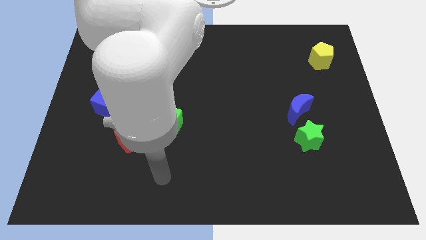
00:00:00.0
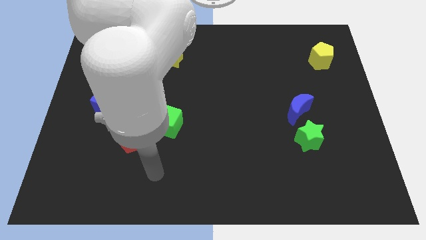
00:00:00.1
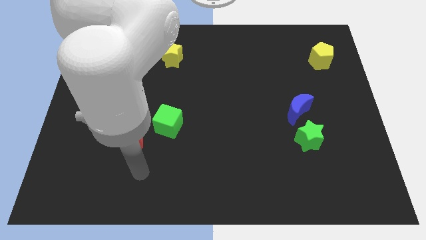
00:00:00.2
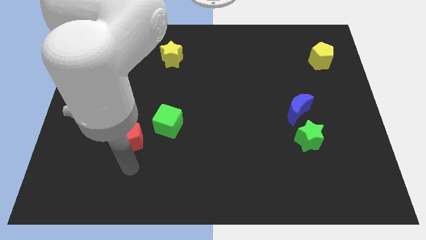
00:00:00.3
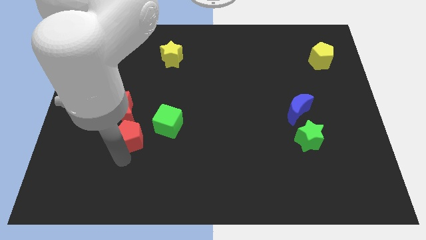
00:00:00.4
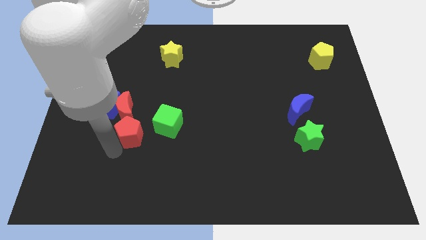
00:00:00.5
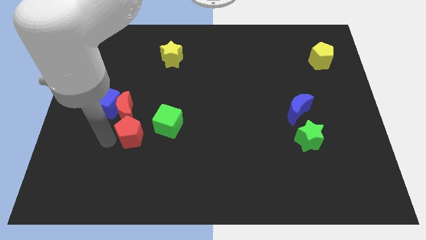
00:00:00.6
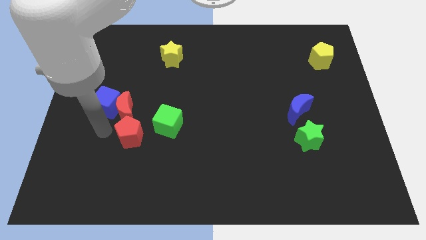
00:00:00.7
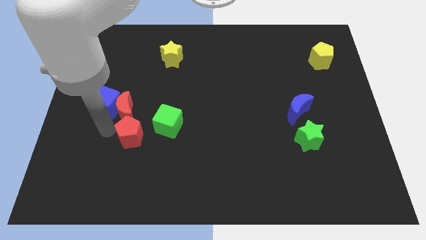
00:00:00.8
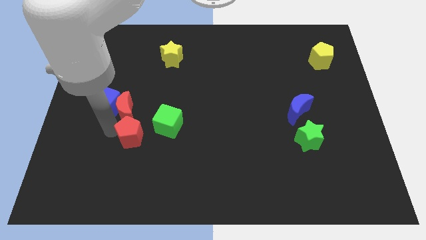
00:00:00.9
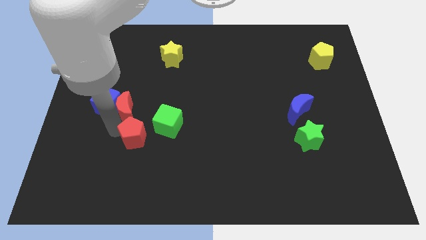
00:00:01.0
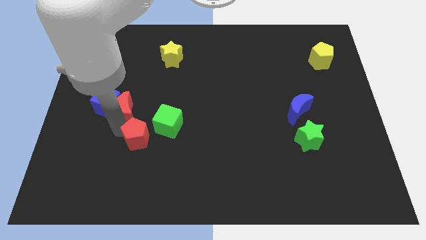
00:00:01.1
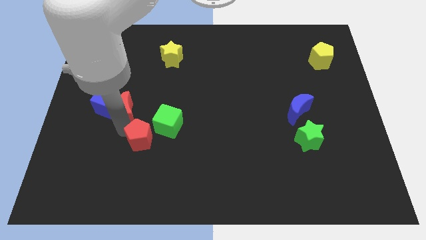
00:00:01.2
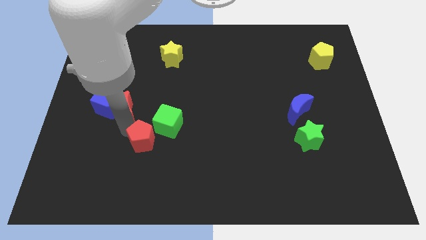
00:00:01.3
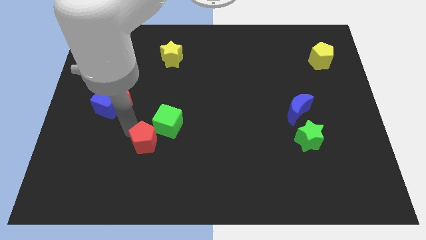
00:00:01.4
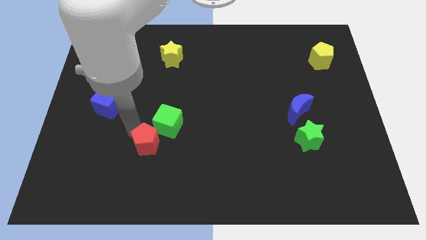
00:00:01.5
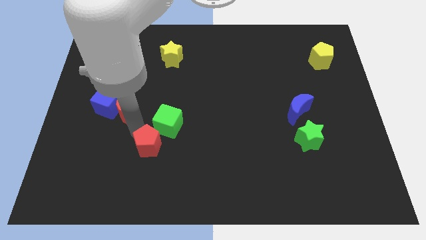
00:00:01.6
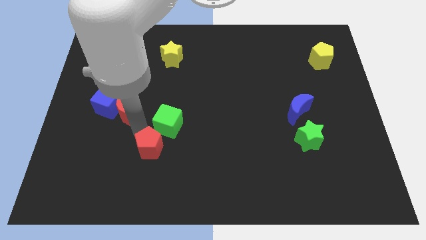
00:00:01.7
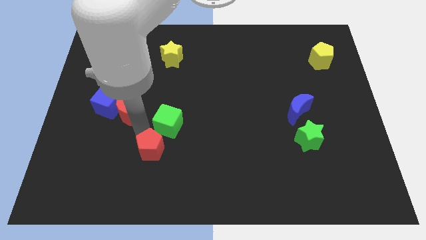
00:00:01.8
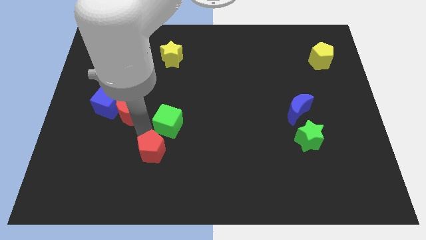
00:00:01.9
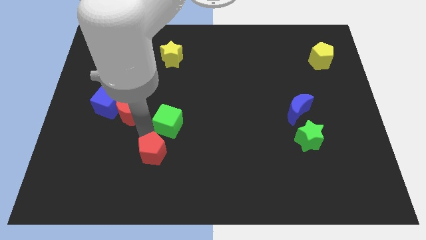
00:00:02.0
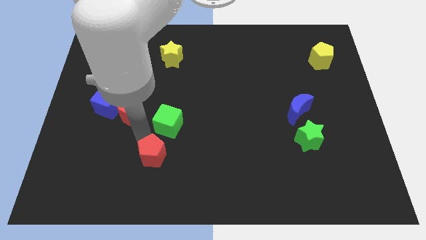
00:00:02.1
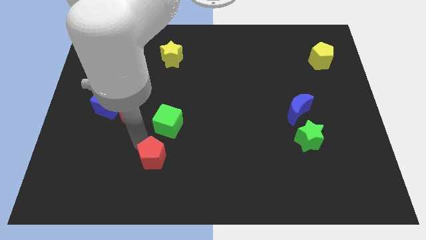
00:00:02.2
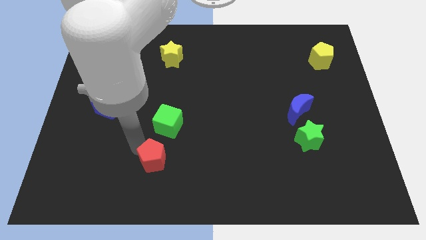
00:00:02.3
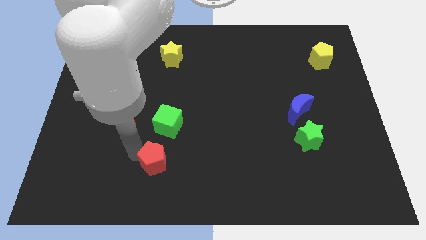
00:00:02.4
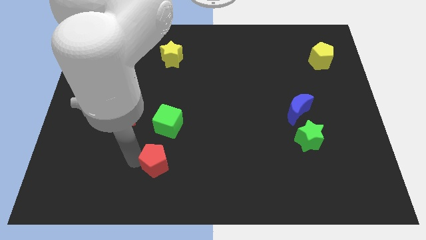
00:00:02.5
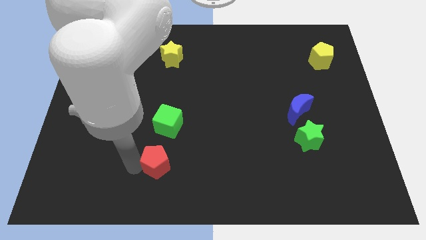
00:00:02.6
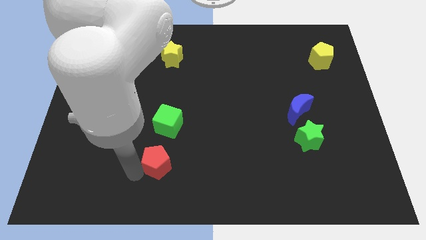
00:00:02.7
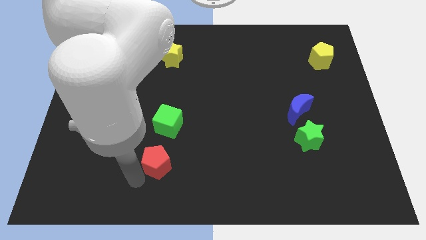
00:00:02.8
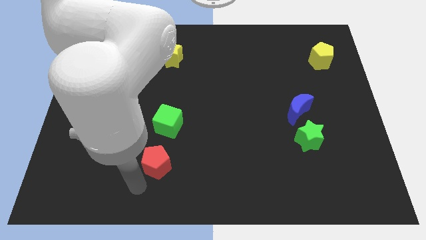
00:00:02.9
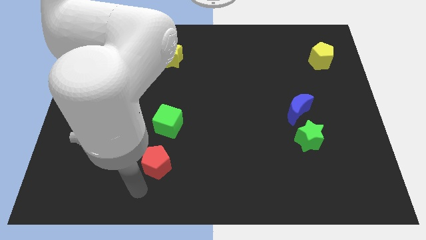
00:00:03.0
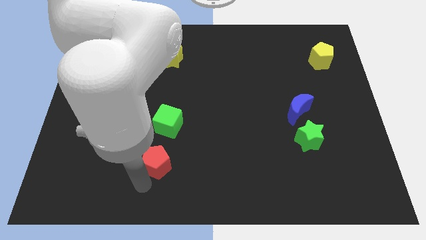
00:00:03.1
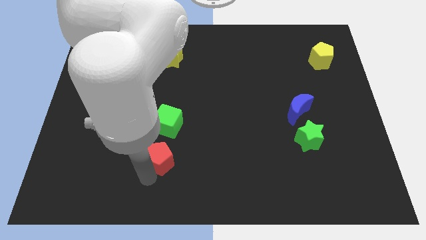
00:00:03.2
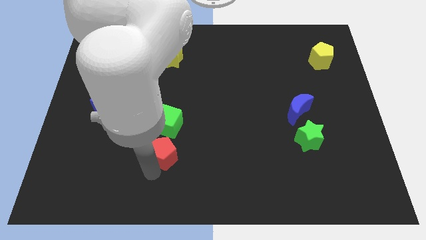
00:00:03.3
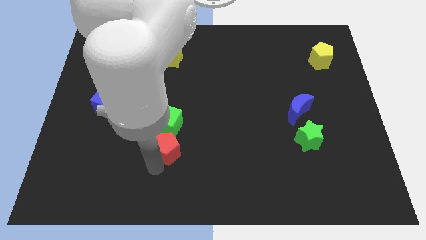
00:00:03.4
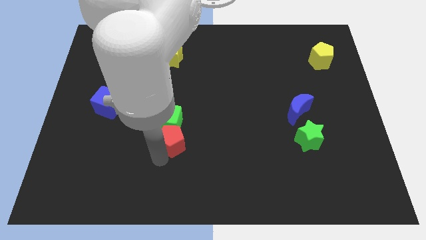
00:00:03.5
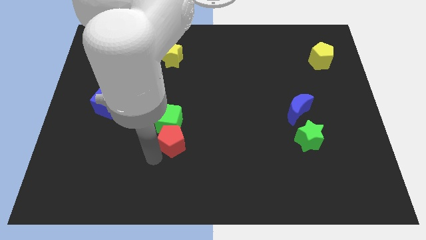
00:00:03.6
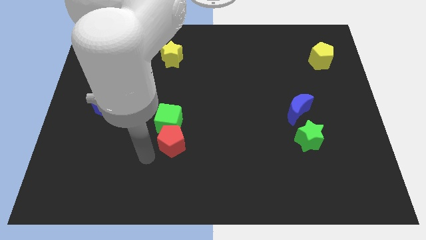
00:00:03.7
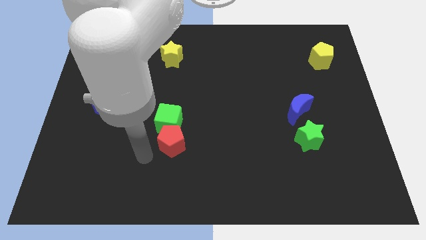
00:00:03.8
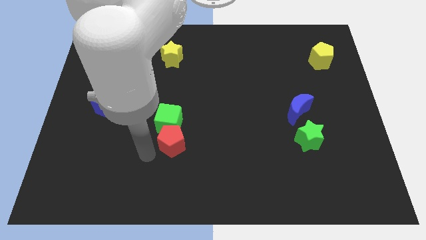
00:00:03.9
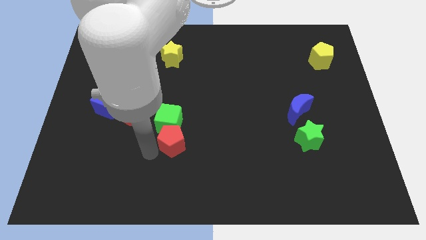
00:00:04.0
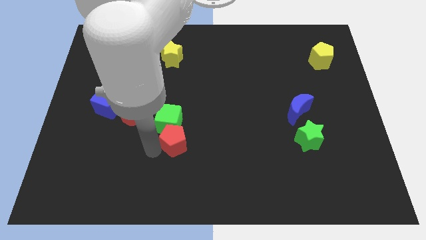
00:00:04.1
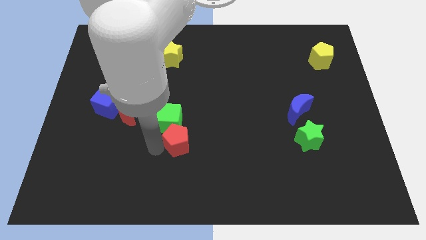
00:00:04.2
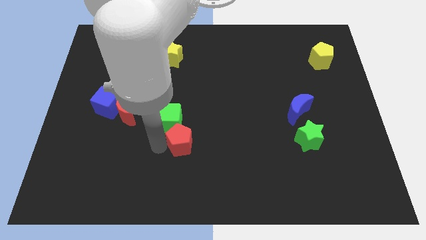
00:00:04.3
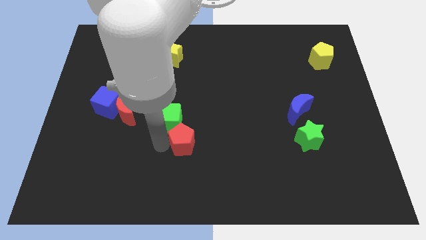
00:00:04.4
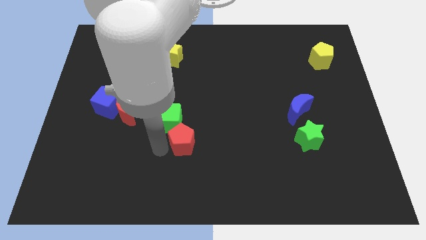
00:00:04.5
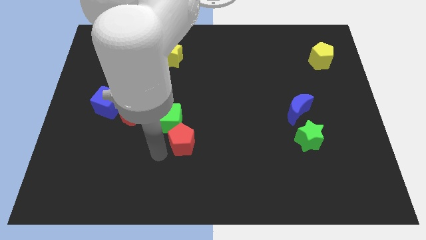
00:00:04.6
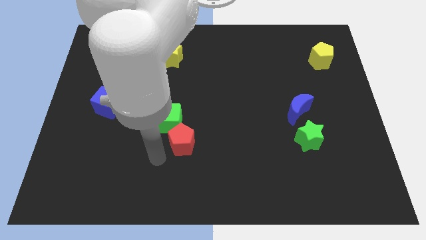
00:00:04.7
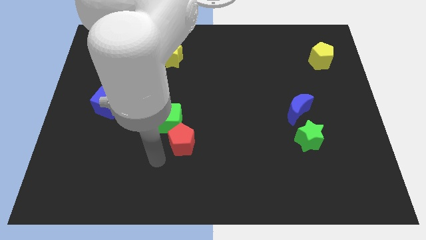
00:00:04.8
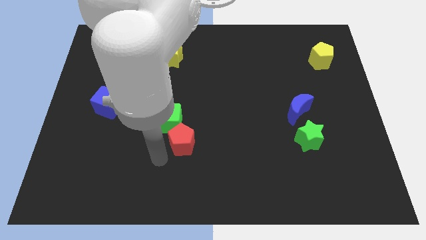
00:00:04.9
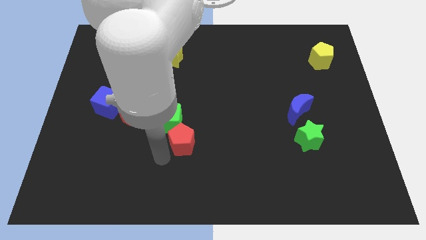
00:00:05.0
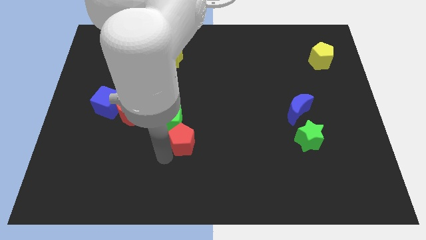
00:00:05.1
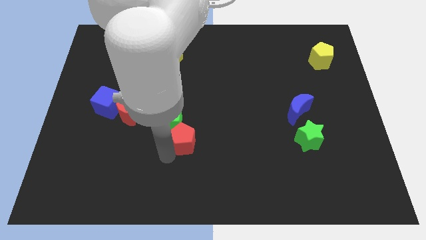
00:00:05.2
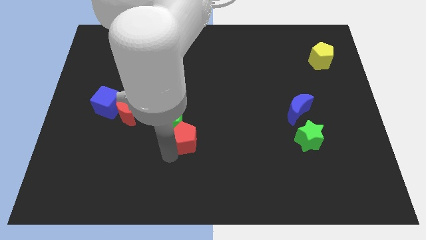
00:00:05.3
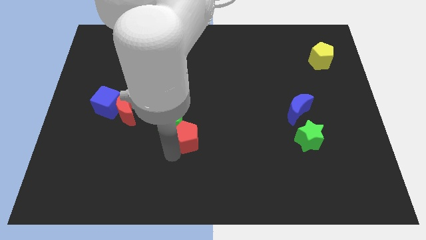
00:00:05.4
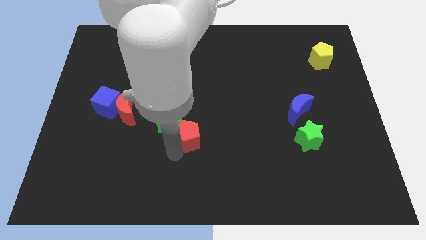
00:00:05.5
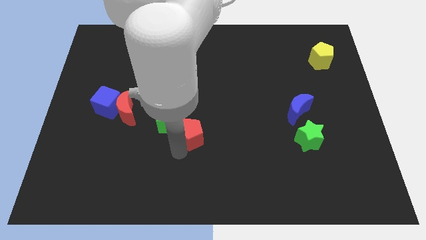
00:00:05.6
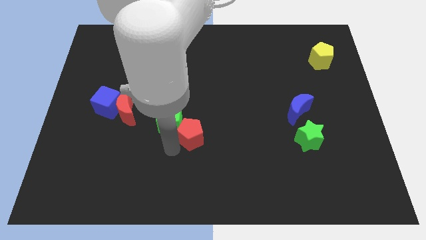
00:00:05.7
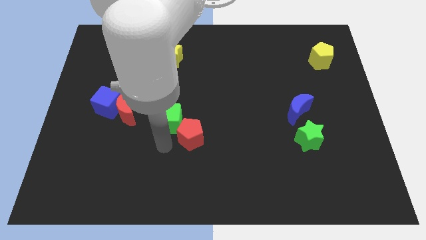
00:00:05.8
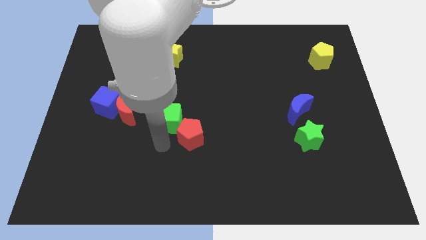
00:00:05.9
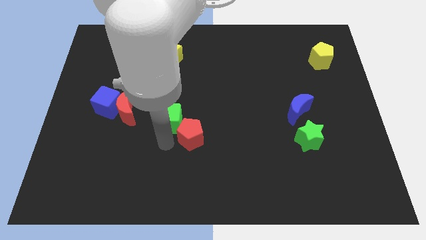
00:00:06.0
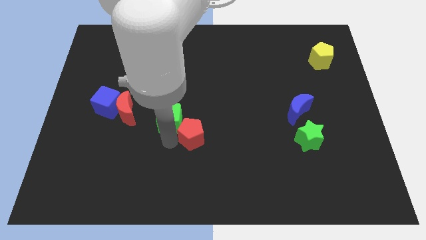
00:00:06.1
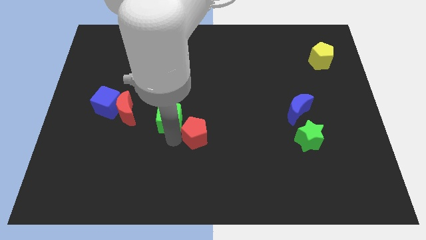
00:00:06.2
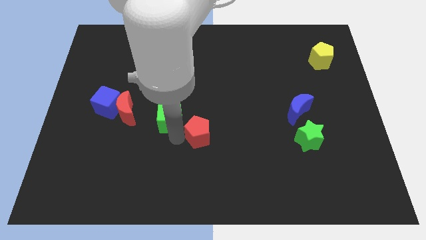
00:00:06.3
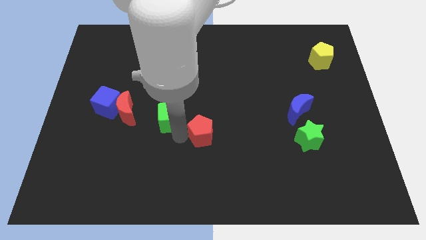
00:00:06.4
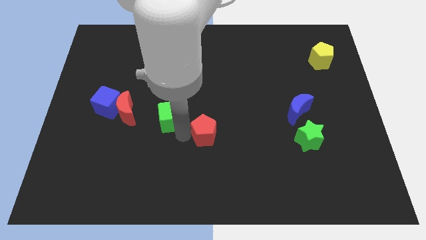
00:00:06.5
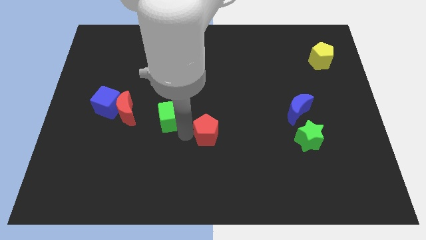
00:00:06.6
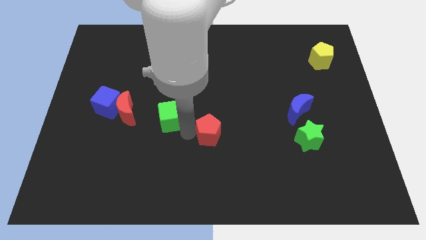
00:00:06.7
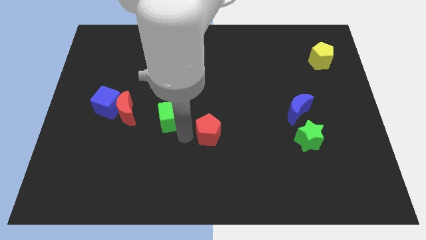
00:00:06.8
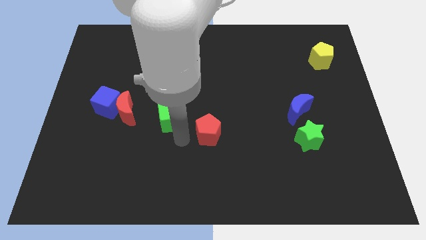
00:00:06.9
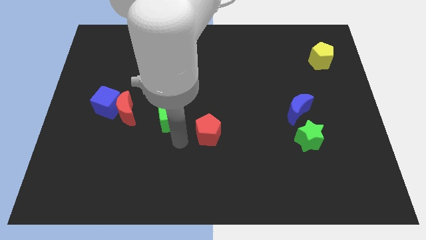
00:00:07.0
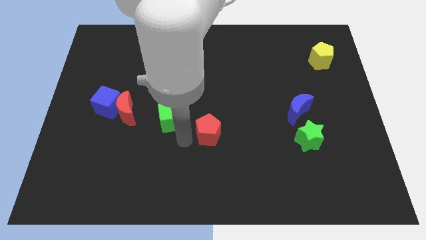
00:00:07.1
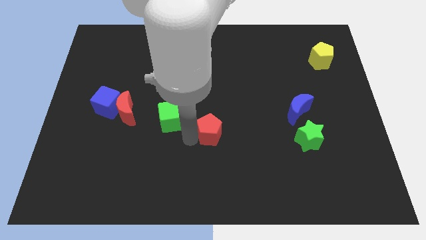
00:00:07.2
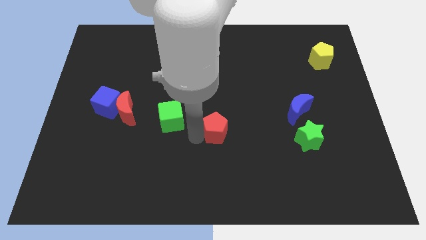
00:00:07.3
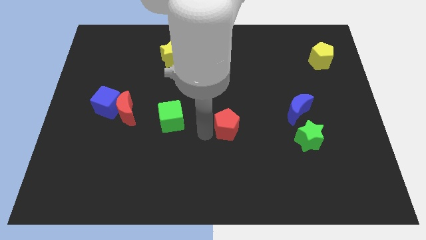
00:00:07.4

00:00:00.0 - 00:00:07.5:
slide the red pentagon to the right

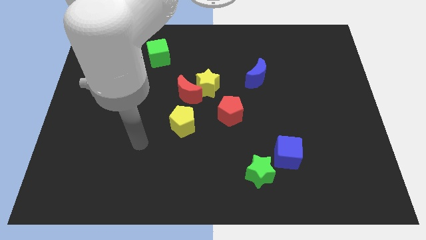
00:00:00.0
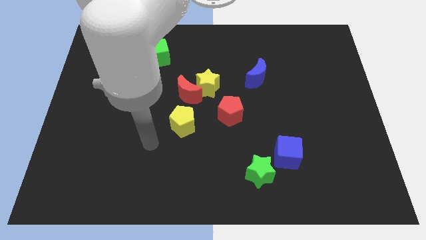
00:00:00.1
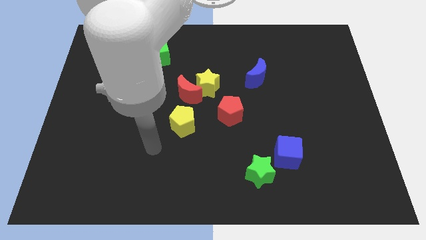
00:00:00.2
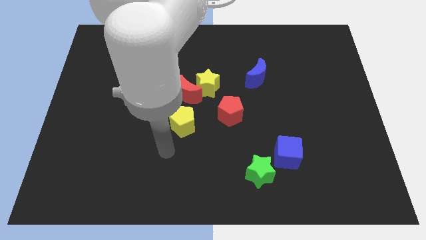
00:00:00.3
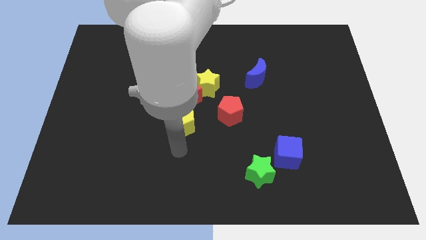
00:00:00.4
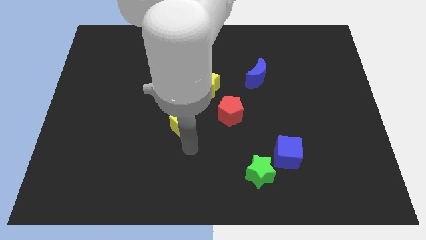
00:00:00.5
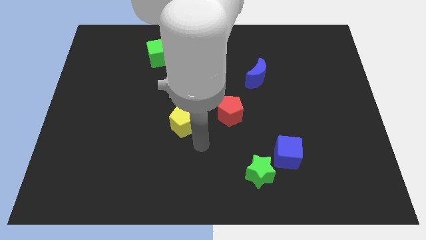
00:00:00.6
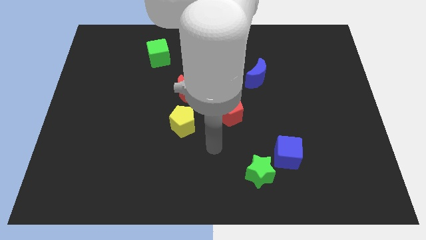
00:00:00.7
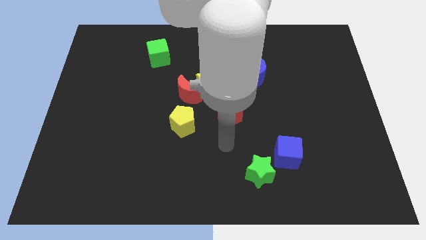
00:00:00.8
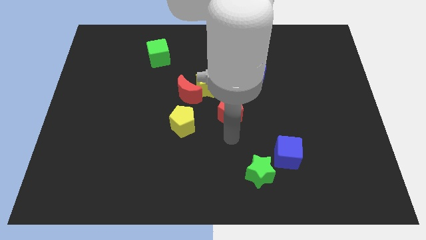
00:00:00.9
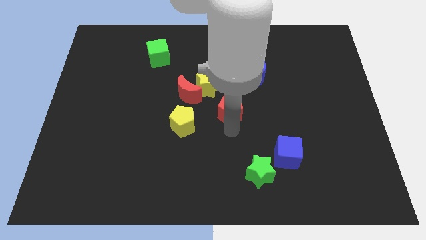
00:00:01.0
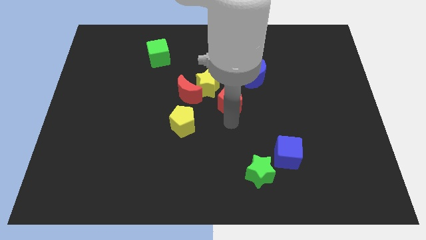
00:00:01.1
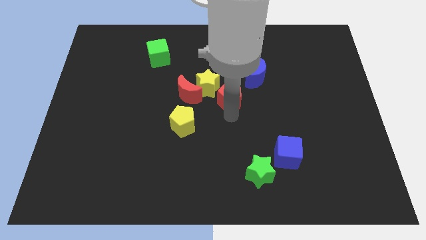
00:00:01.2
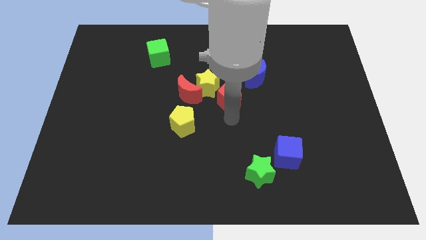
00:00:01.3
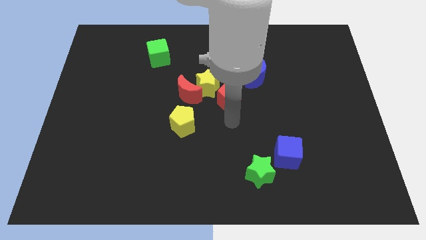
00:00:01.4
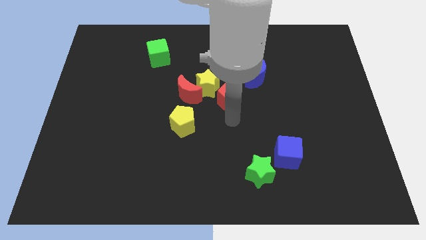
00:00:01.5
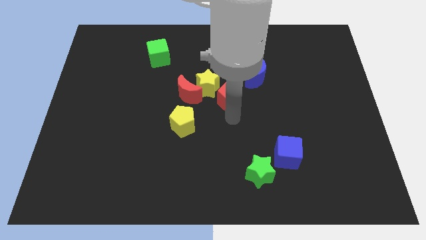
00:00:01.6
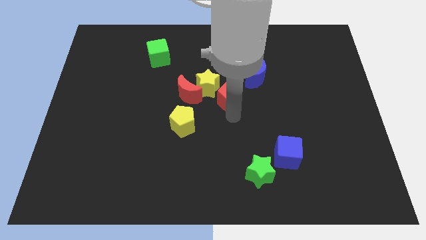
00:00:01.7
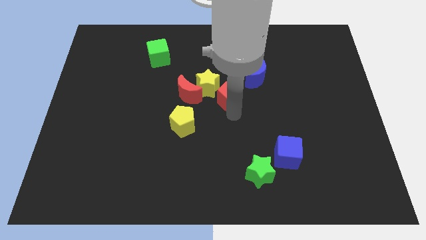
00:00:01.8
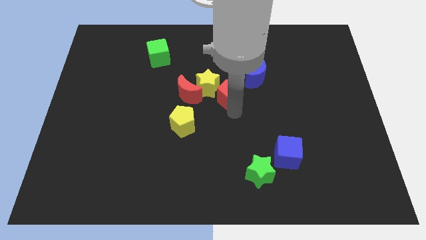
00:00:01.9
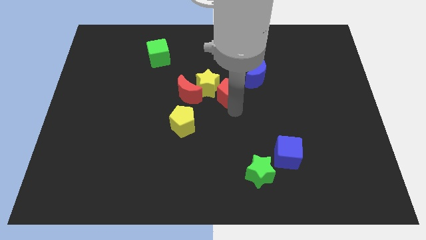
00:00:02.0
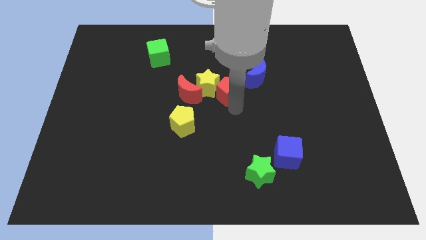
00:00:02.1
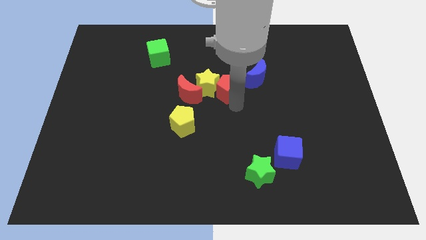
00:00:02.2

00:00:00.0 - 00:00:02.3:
push the red pentagon upwards somewhat
